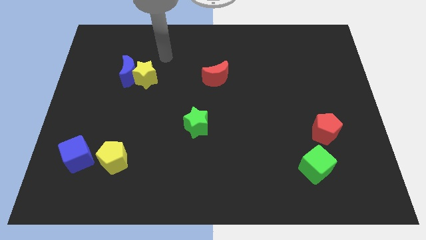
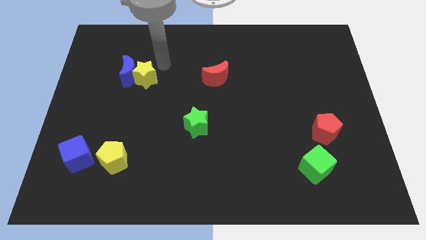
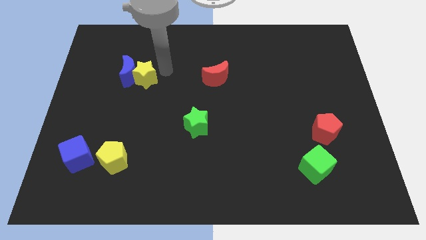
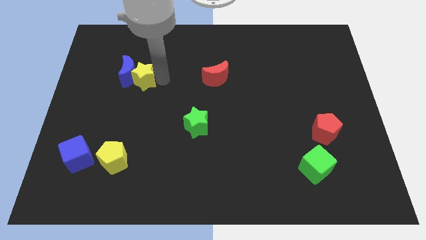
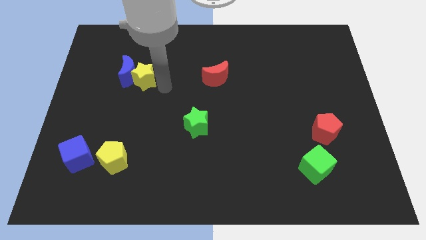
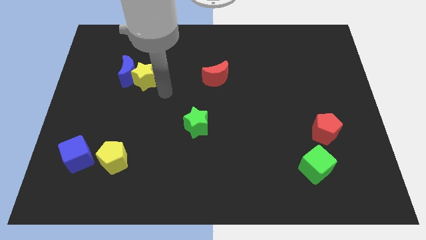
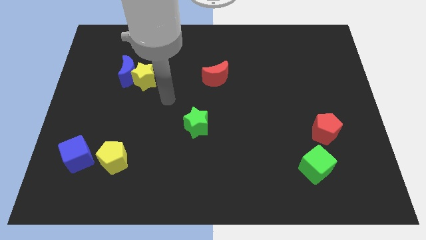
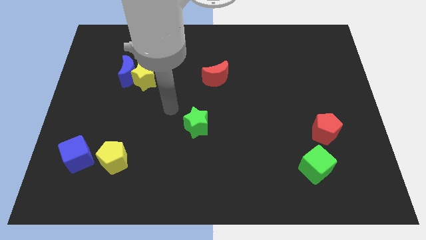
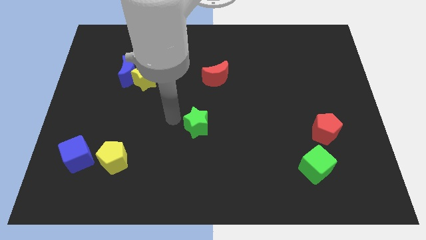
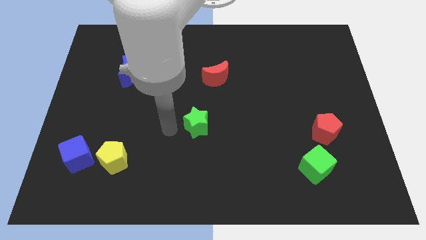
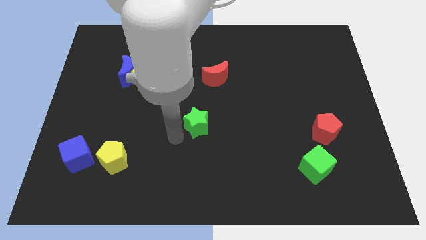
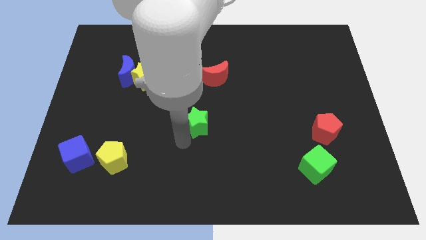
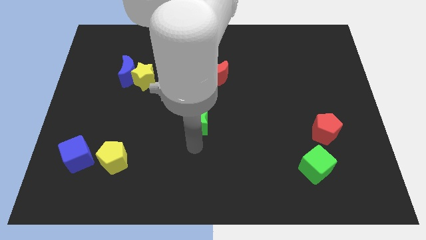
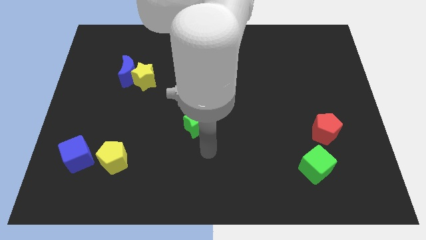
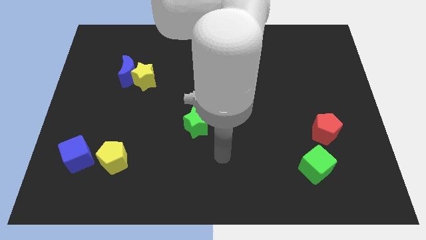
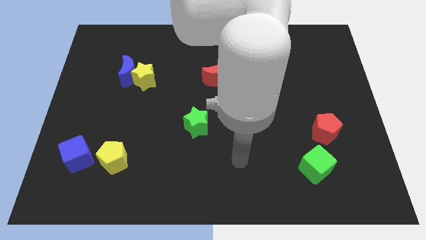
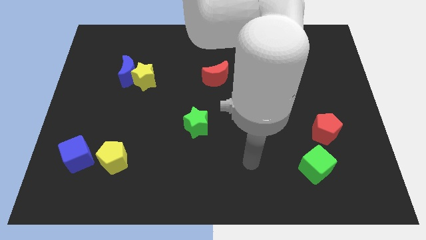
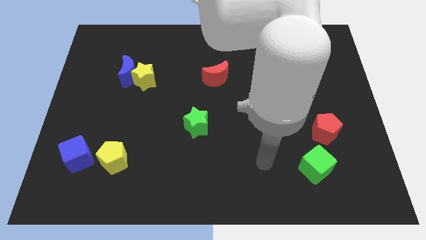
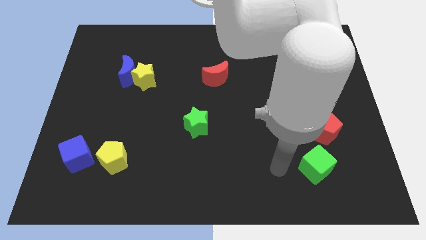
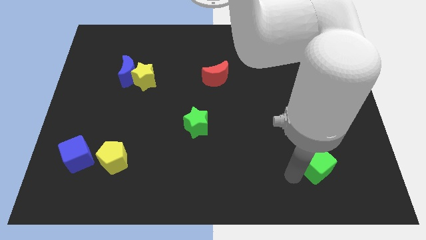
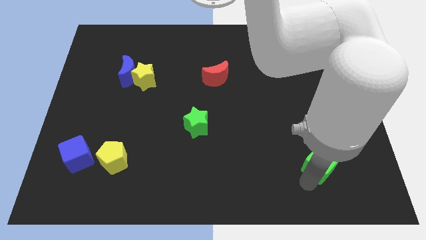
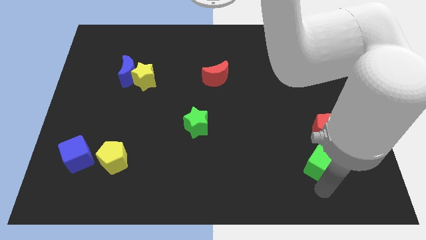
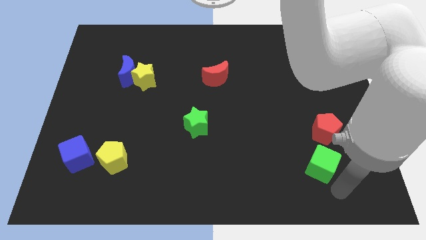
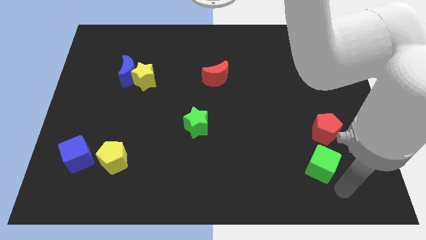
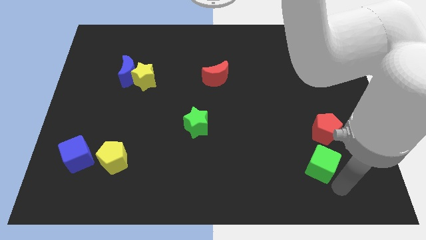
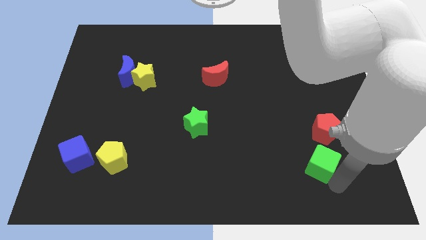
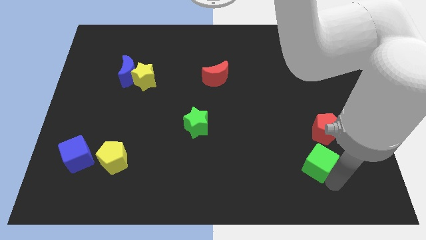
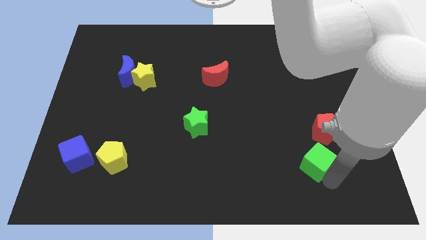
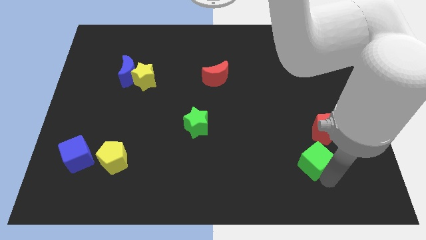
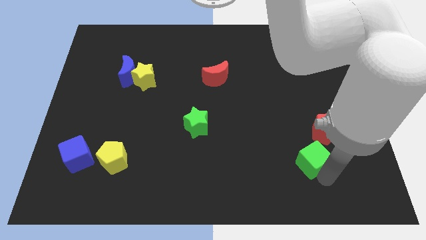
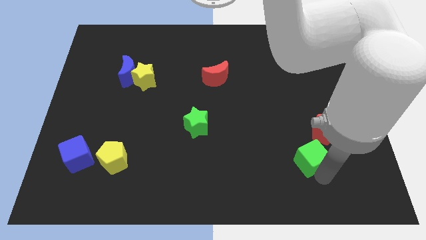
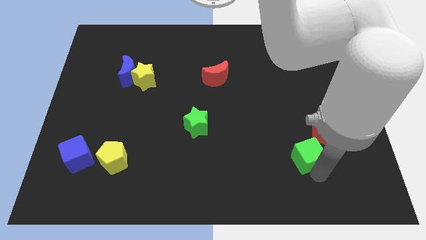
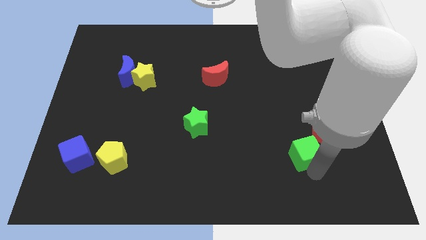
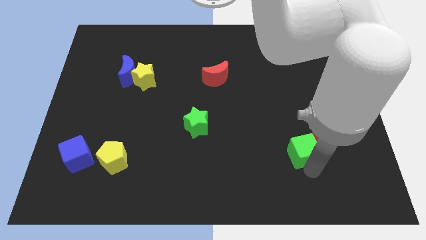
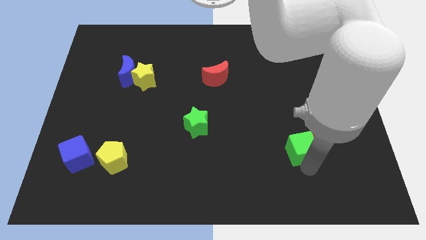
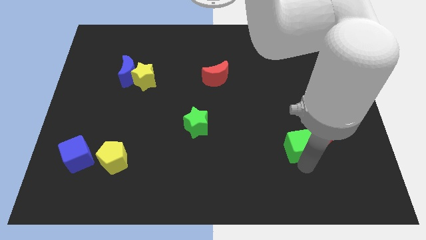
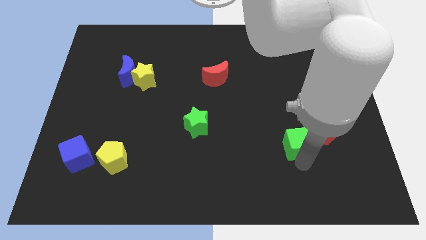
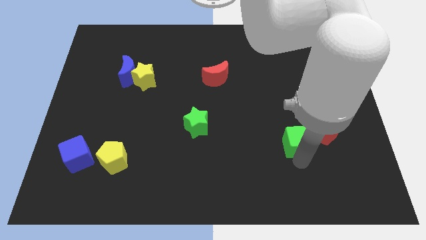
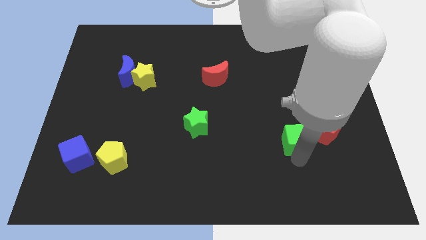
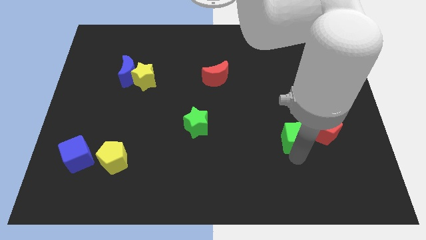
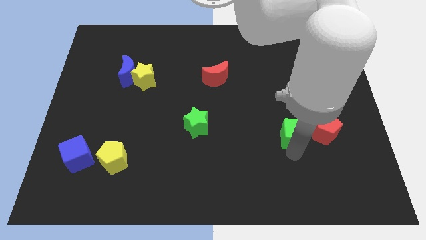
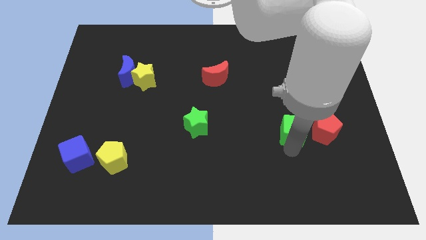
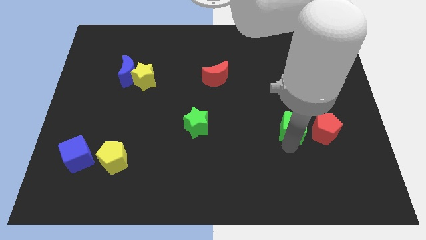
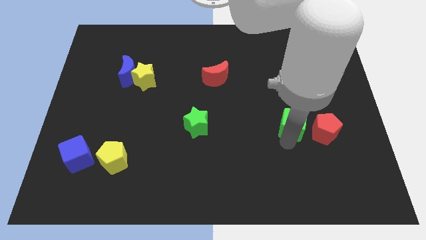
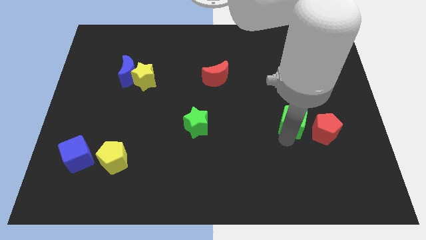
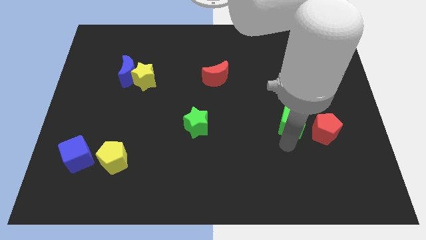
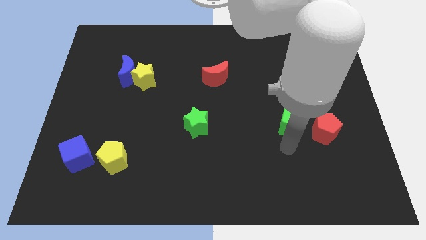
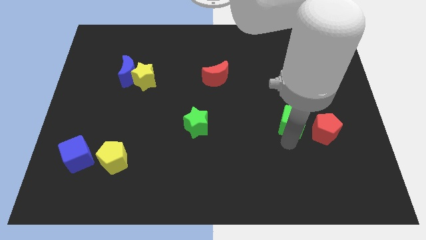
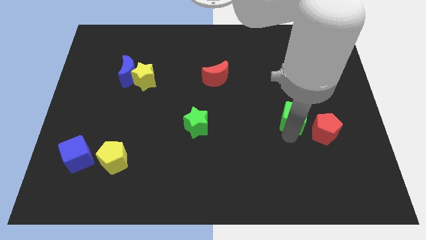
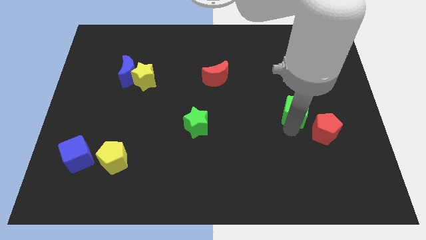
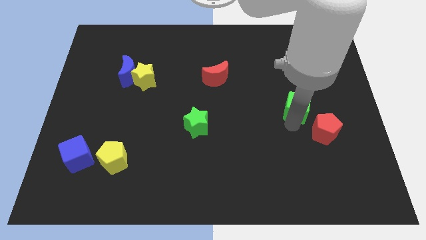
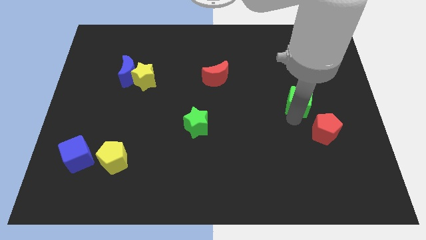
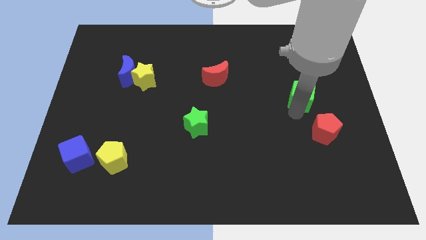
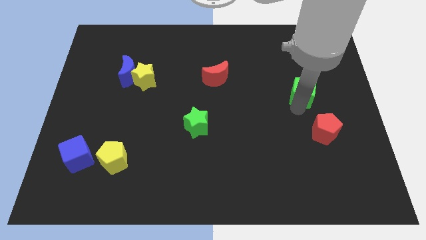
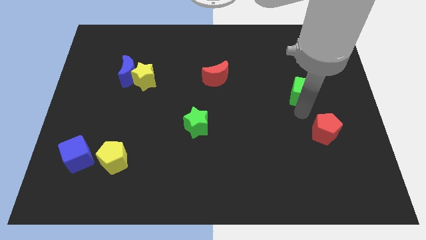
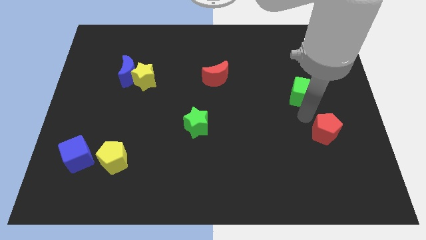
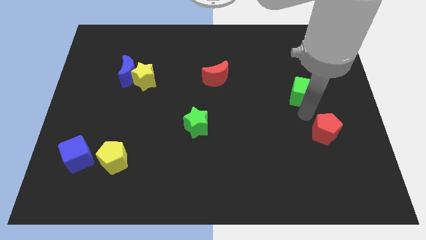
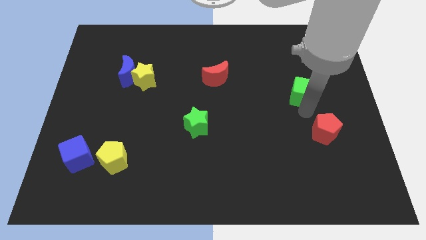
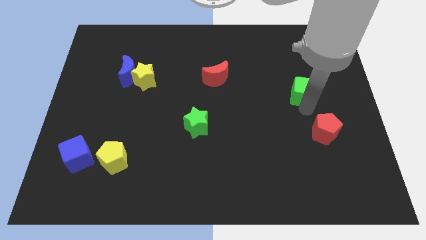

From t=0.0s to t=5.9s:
slide the green cube up

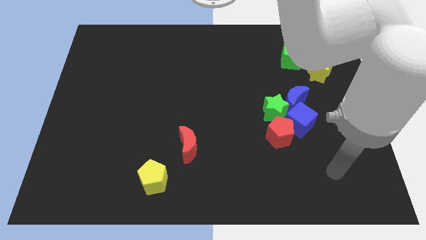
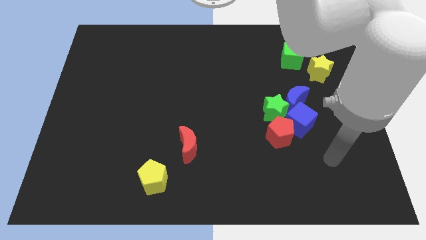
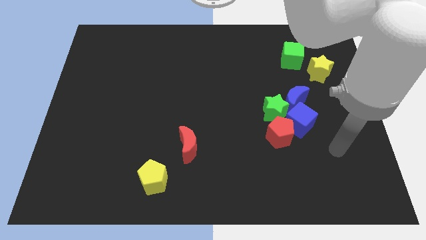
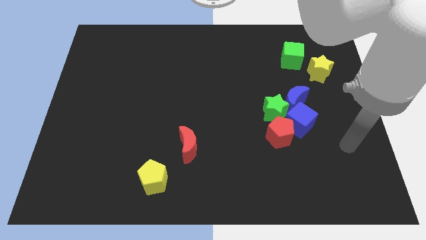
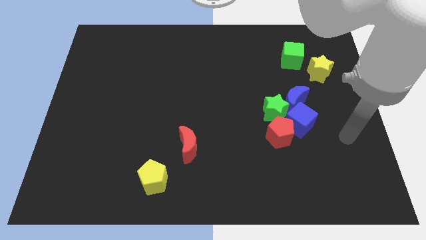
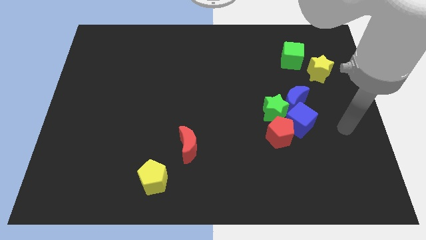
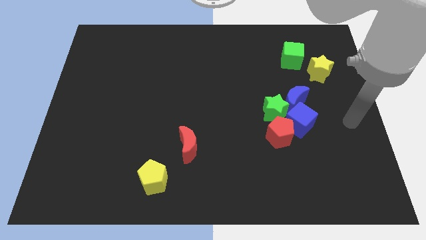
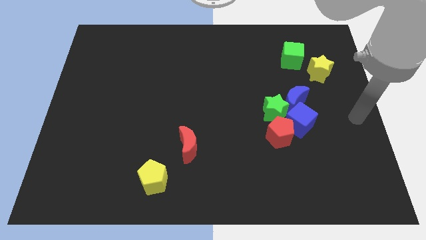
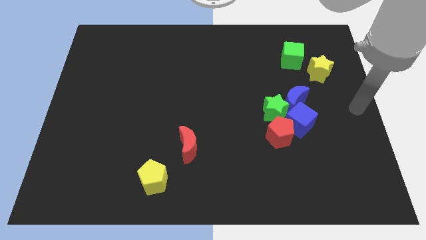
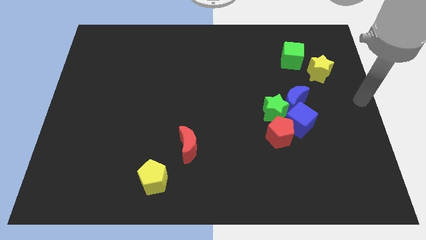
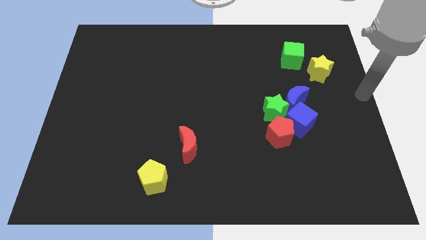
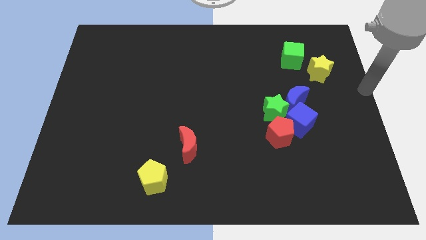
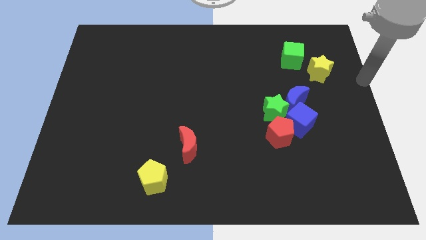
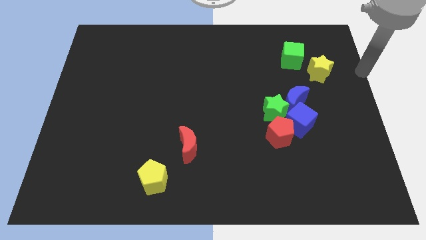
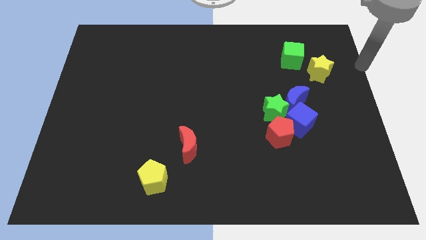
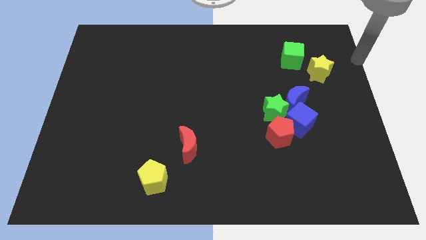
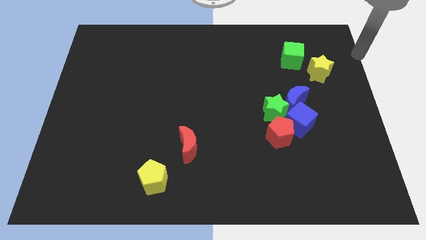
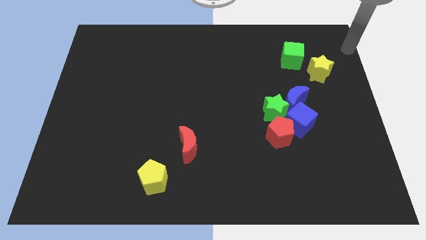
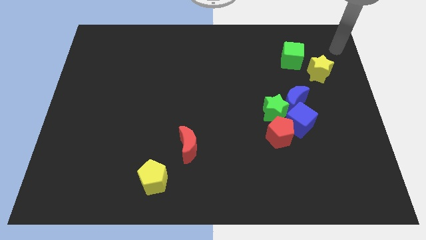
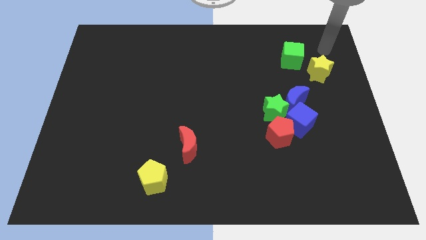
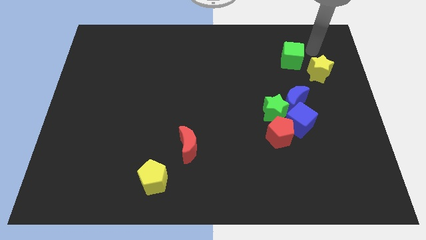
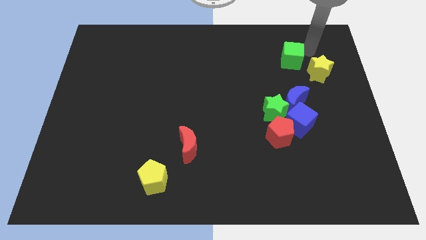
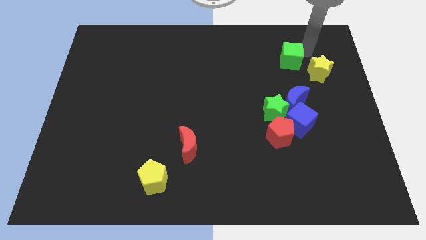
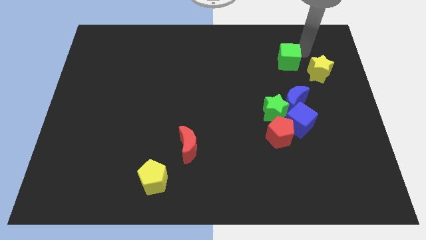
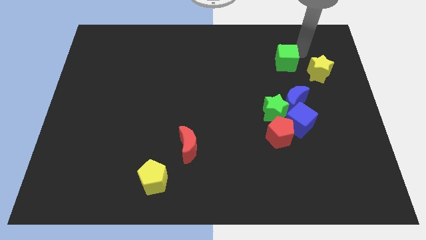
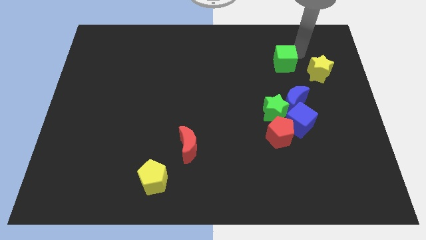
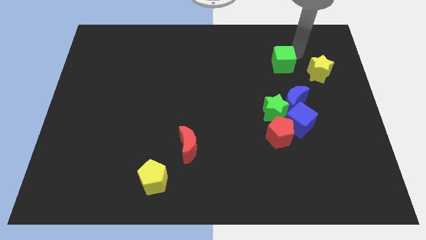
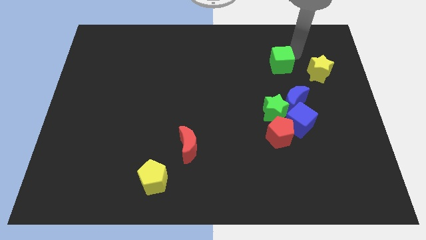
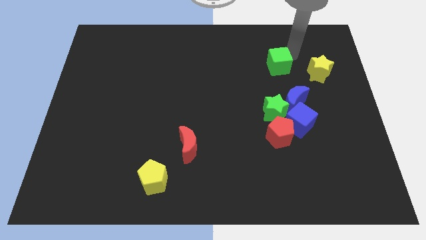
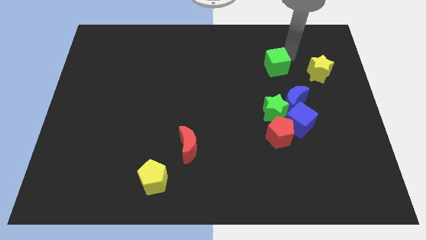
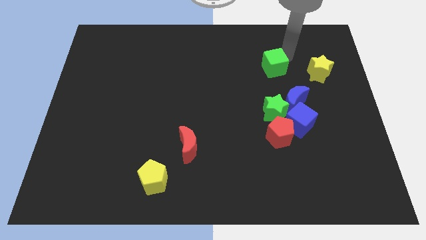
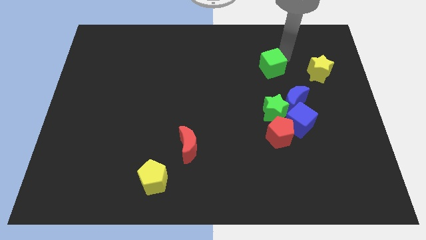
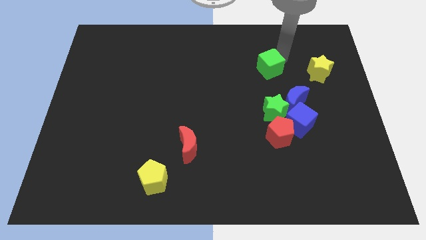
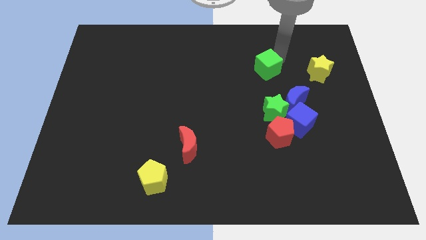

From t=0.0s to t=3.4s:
slightly move the green cube down and to the left diagonally
